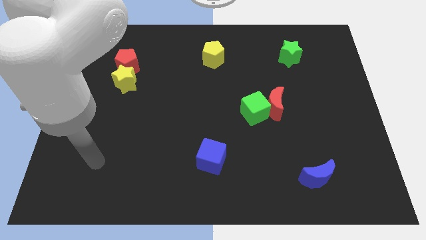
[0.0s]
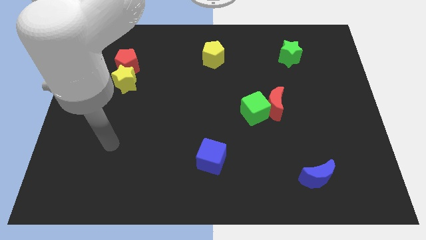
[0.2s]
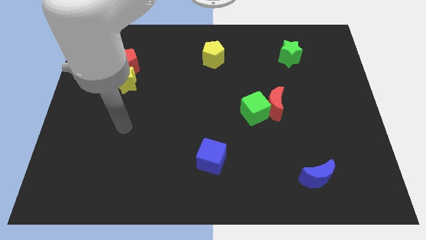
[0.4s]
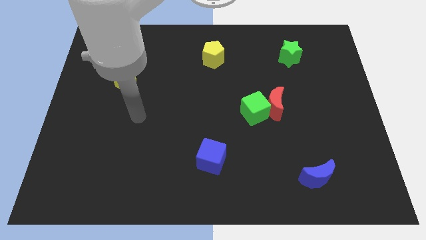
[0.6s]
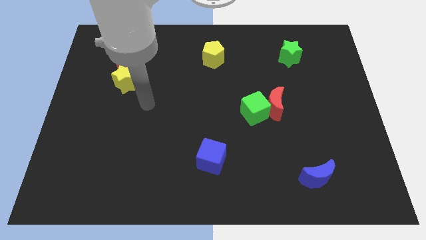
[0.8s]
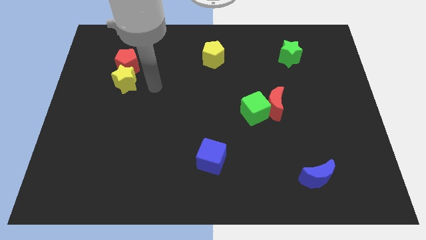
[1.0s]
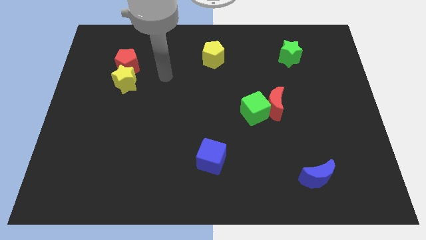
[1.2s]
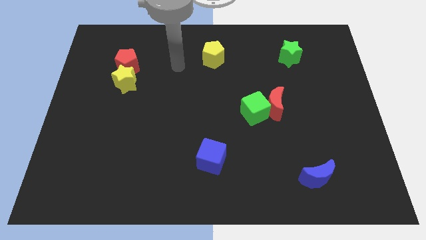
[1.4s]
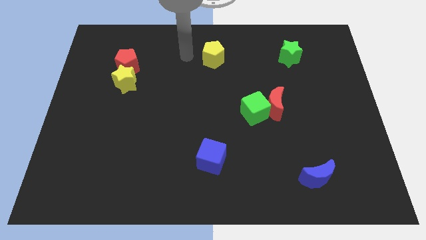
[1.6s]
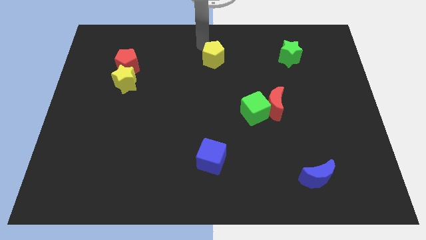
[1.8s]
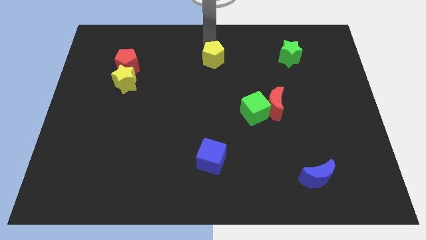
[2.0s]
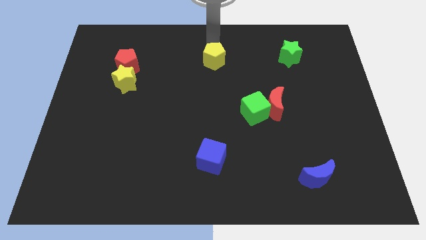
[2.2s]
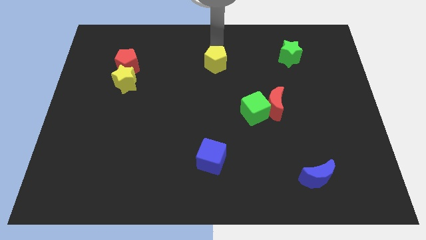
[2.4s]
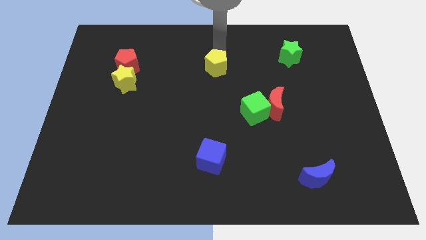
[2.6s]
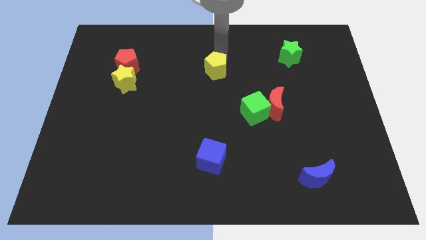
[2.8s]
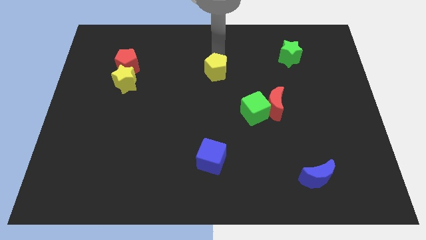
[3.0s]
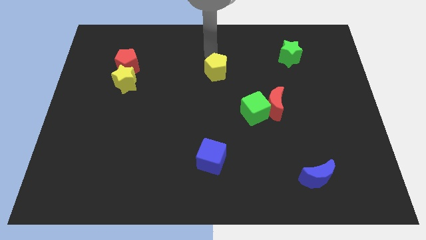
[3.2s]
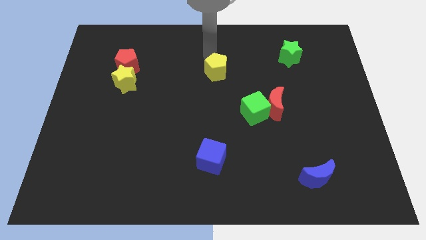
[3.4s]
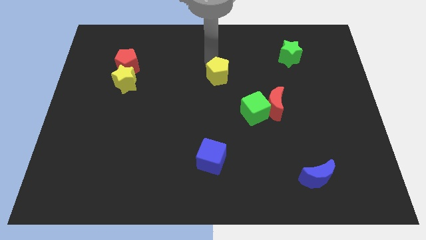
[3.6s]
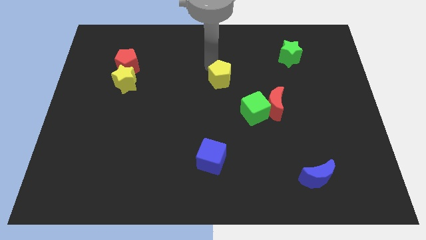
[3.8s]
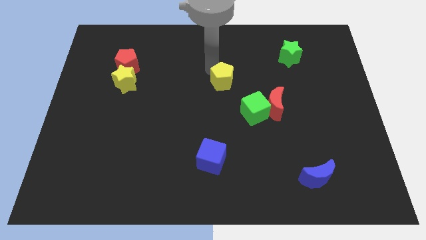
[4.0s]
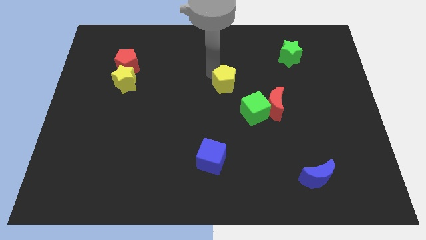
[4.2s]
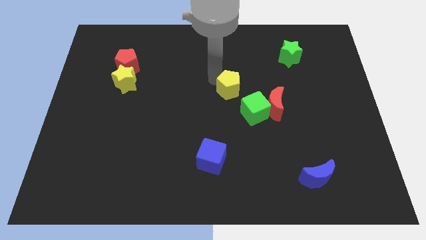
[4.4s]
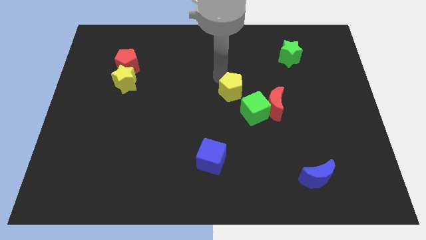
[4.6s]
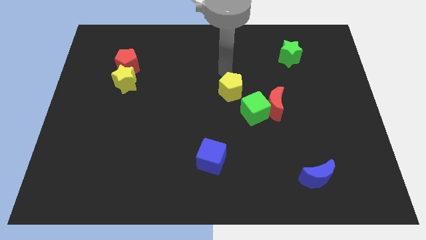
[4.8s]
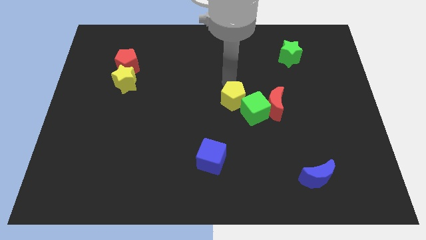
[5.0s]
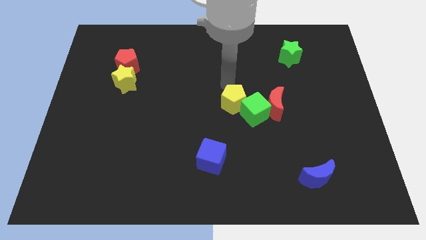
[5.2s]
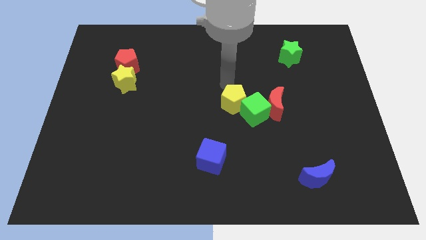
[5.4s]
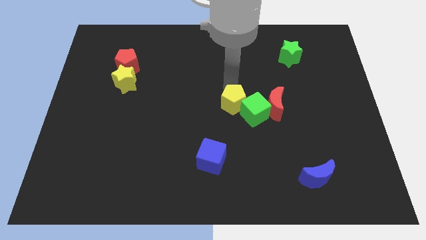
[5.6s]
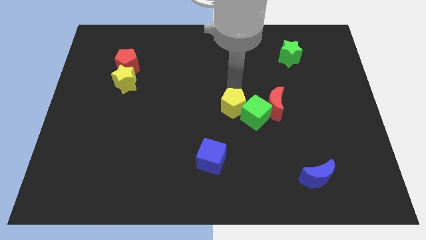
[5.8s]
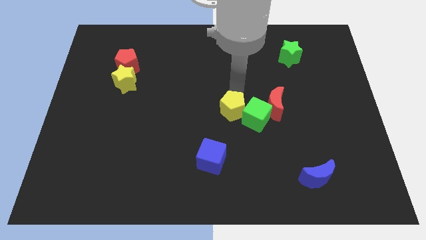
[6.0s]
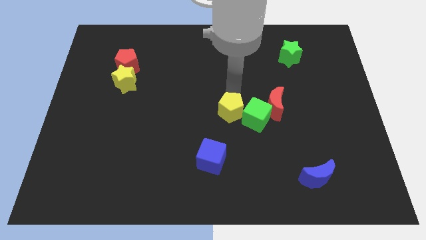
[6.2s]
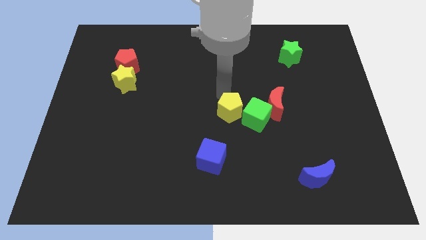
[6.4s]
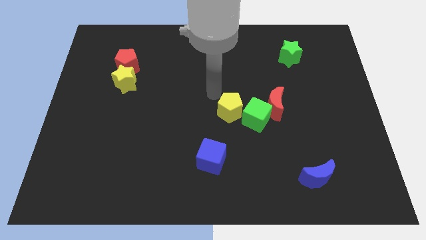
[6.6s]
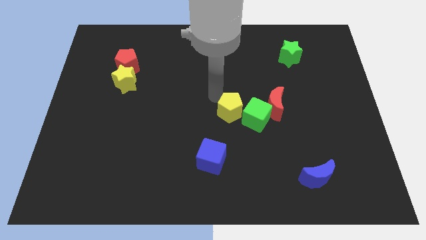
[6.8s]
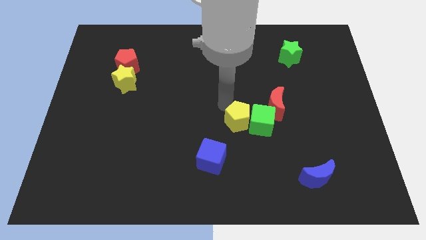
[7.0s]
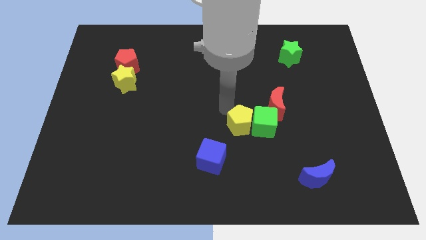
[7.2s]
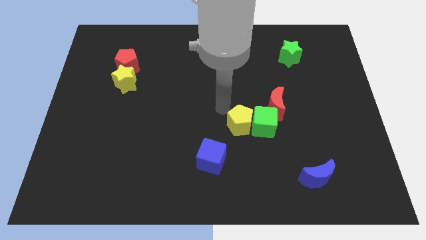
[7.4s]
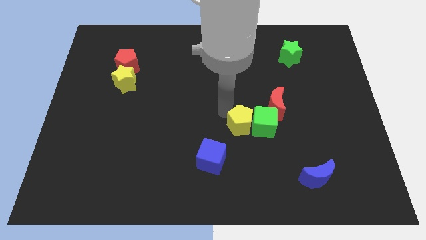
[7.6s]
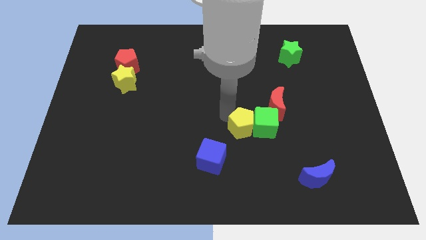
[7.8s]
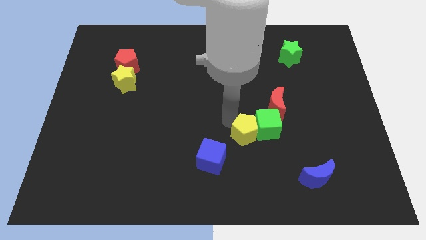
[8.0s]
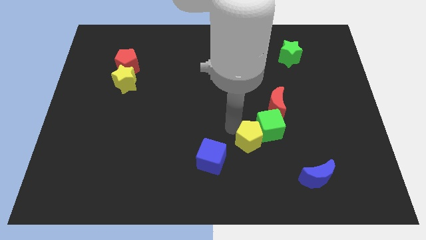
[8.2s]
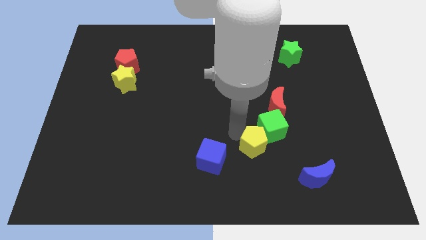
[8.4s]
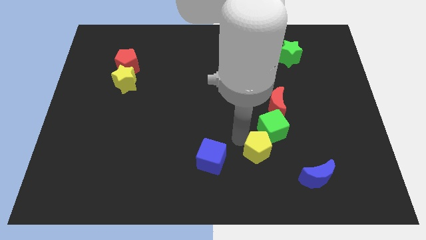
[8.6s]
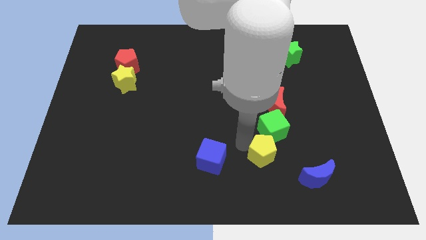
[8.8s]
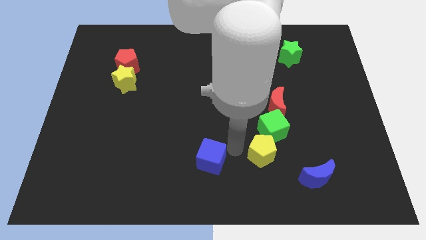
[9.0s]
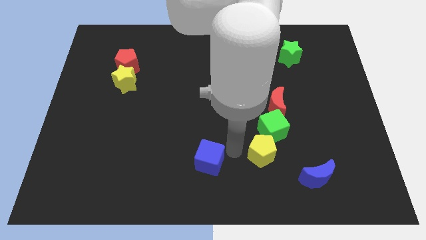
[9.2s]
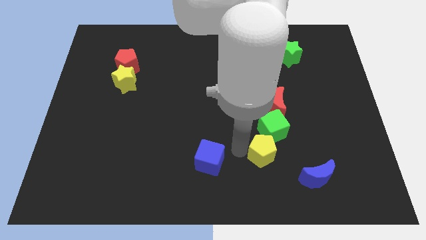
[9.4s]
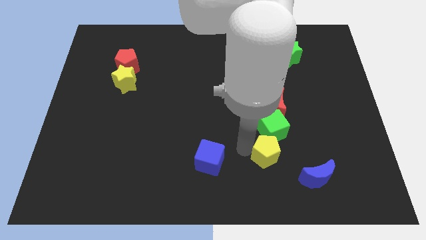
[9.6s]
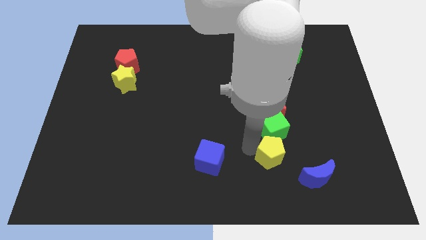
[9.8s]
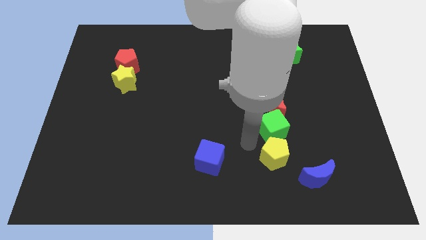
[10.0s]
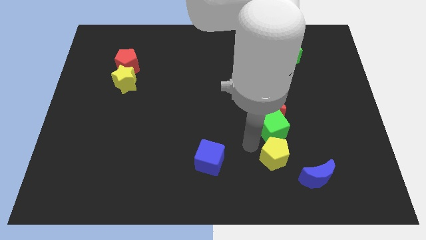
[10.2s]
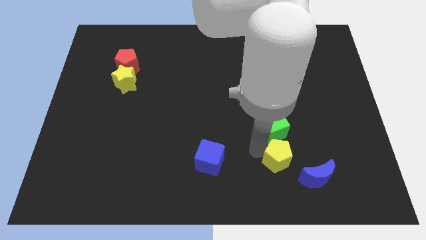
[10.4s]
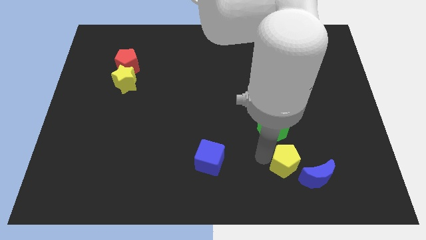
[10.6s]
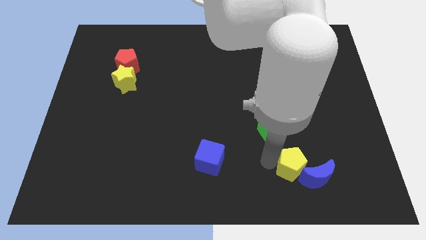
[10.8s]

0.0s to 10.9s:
push the yellow pentagon to the blue moon

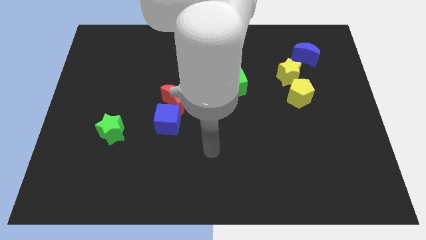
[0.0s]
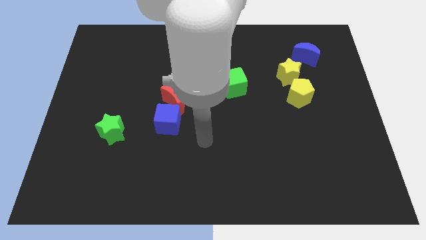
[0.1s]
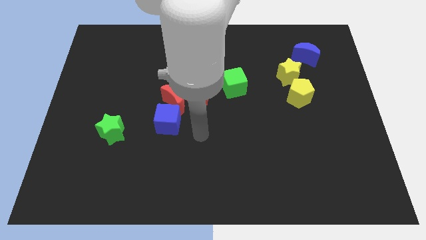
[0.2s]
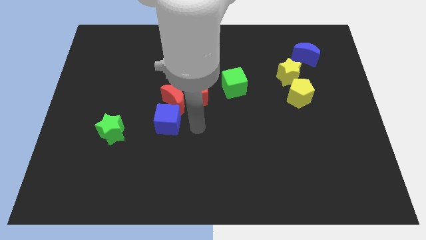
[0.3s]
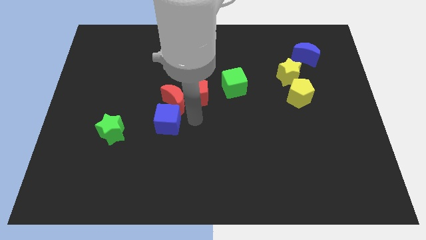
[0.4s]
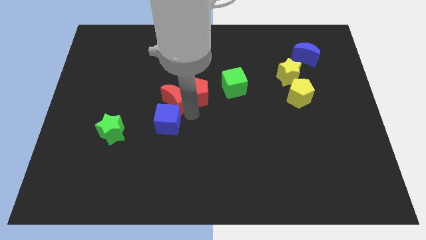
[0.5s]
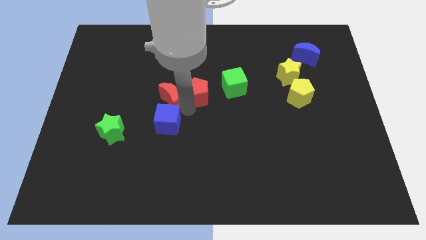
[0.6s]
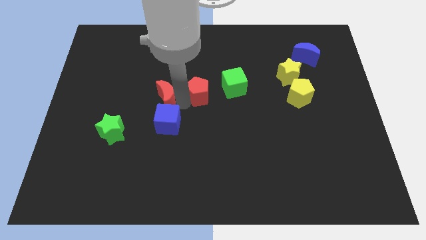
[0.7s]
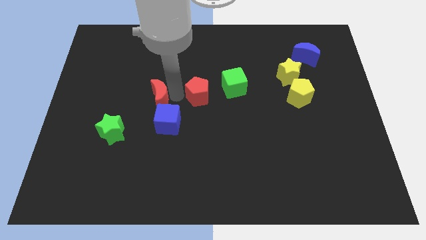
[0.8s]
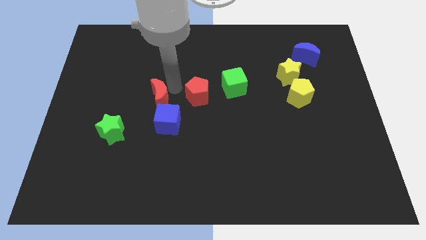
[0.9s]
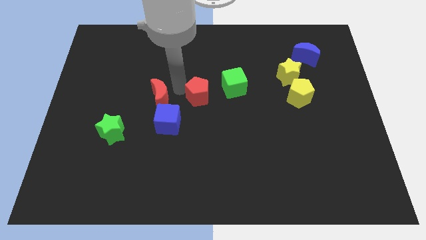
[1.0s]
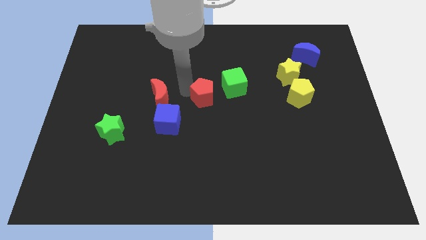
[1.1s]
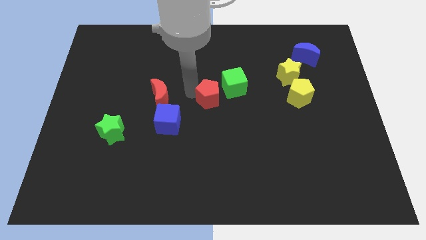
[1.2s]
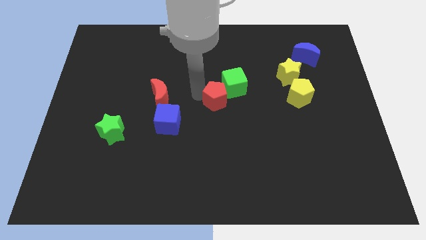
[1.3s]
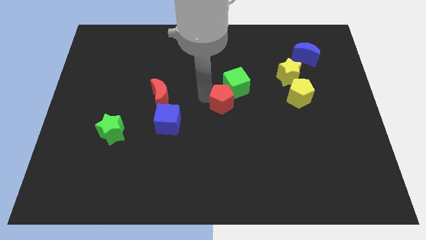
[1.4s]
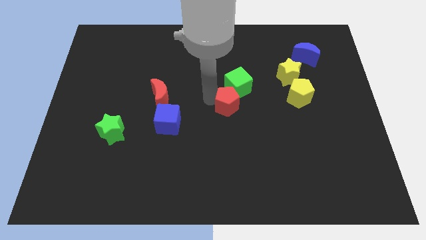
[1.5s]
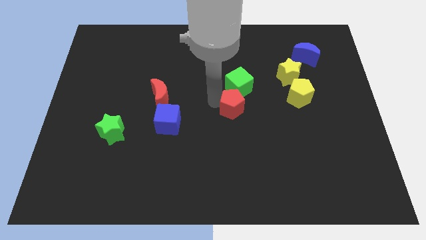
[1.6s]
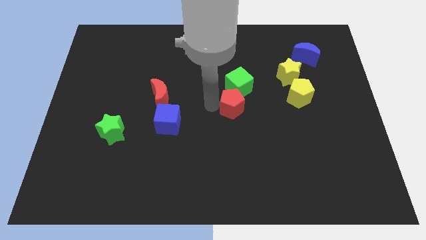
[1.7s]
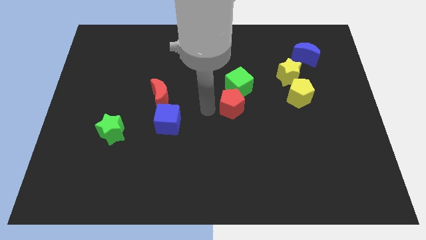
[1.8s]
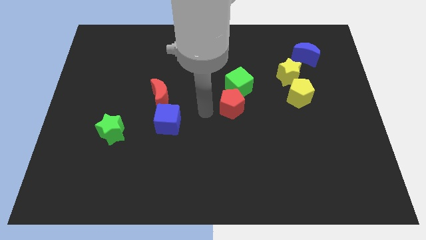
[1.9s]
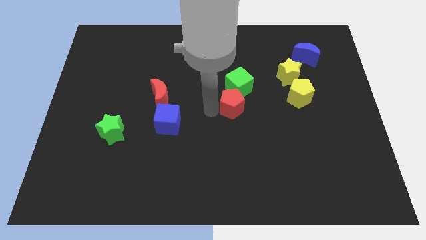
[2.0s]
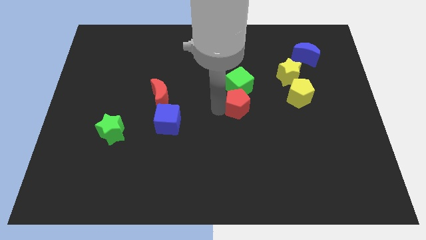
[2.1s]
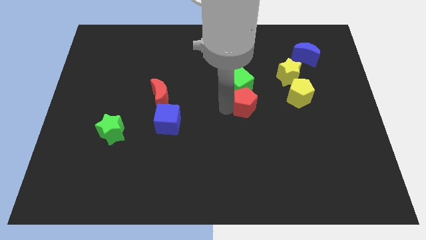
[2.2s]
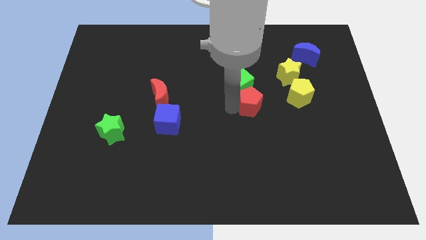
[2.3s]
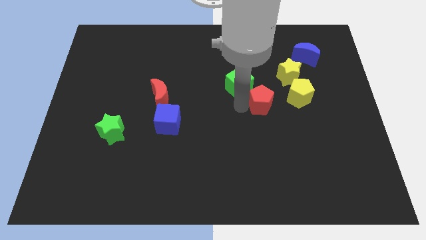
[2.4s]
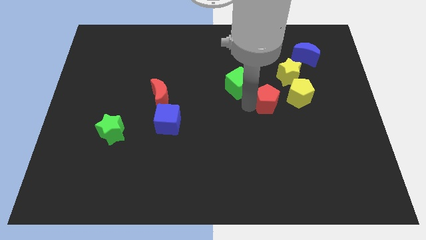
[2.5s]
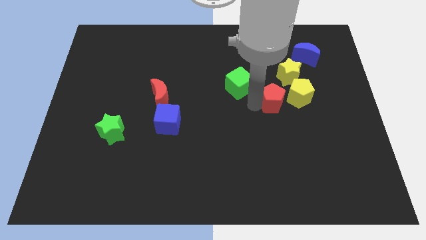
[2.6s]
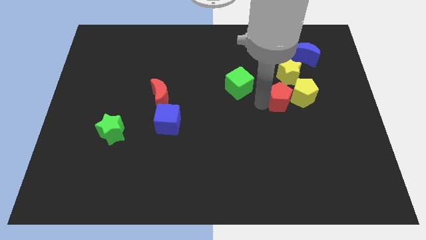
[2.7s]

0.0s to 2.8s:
slide the red pentagon close to the yellow pentagon
